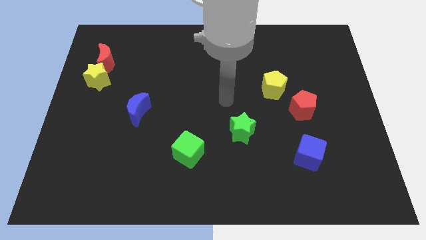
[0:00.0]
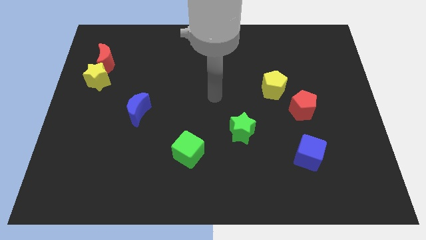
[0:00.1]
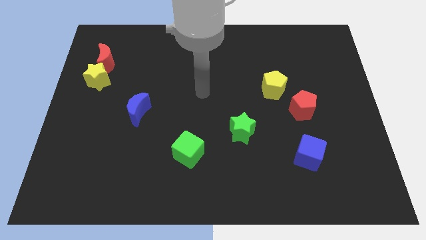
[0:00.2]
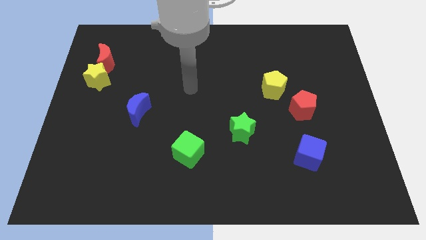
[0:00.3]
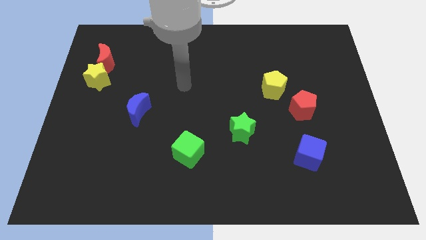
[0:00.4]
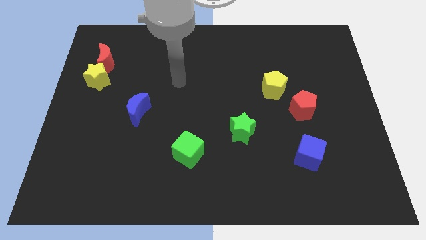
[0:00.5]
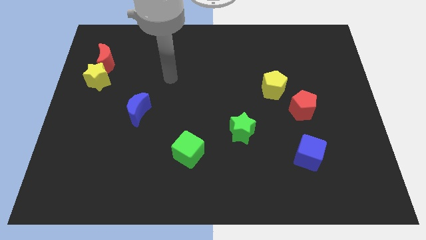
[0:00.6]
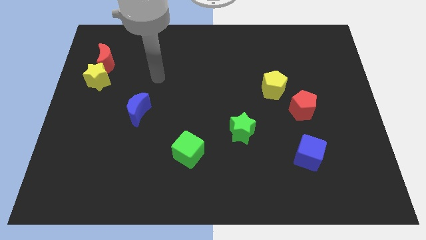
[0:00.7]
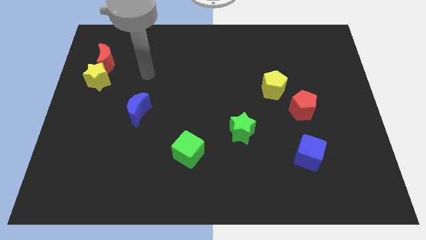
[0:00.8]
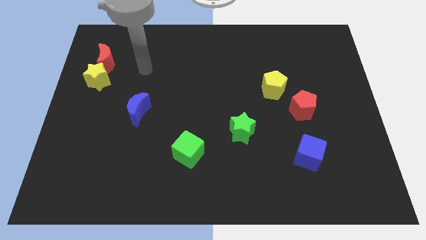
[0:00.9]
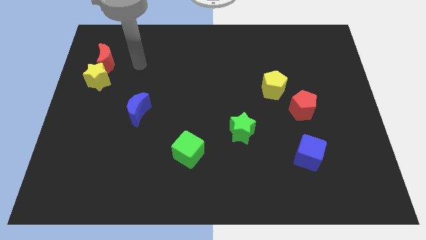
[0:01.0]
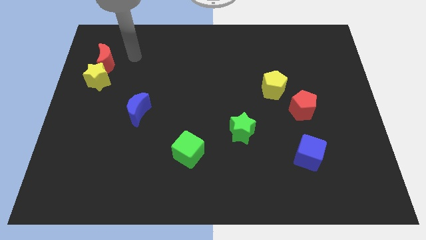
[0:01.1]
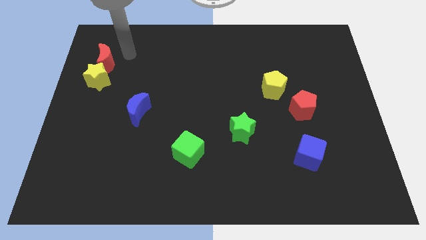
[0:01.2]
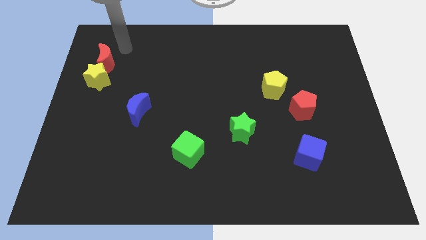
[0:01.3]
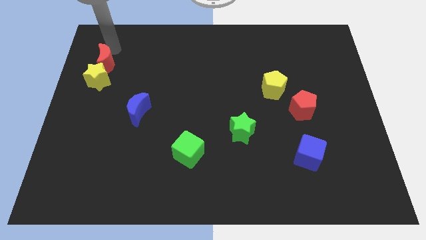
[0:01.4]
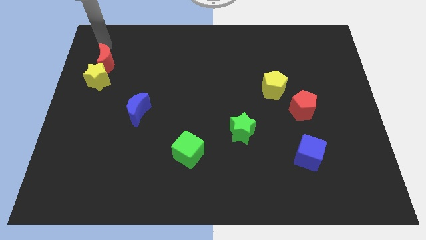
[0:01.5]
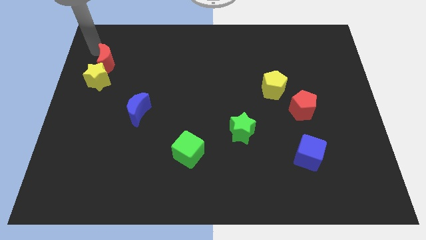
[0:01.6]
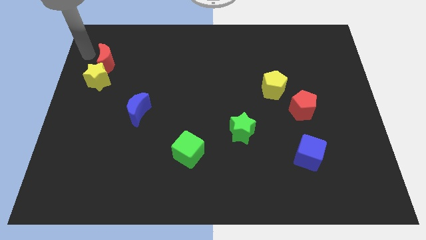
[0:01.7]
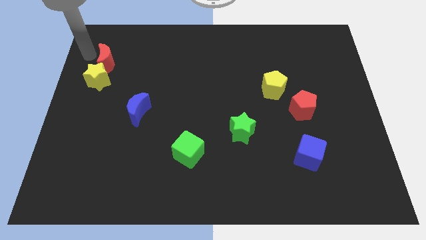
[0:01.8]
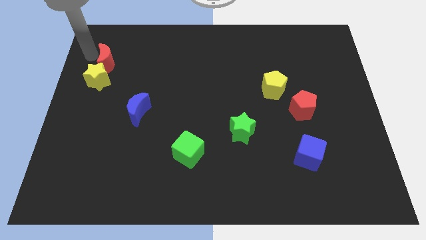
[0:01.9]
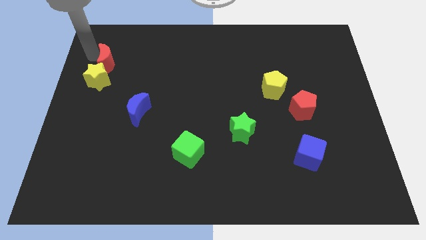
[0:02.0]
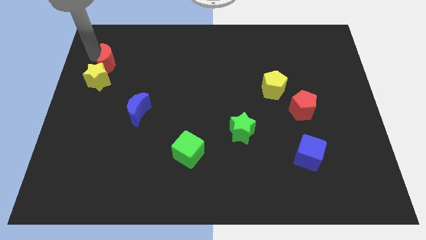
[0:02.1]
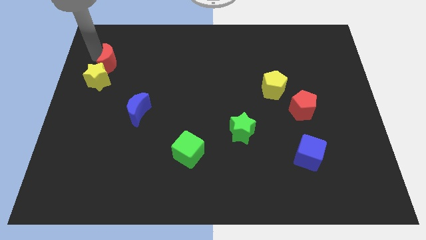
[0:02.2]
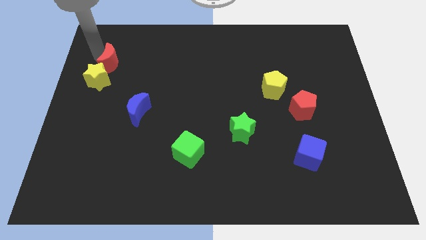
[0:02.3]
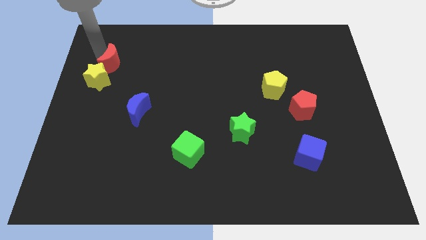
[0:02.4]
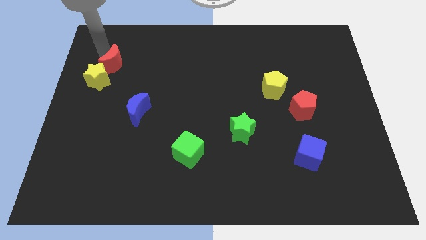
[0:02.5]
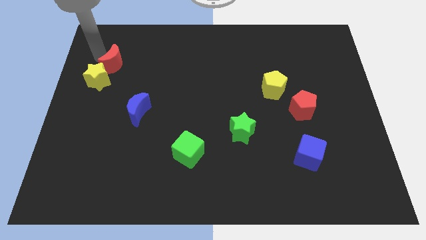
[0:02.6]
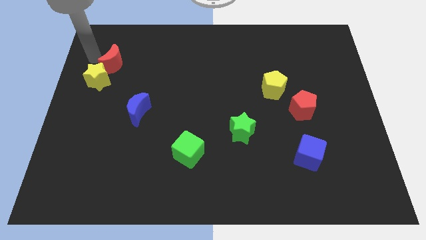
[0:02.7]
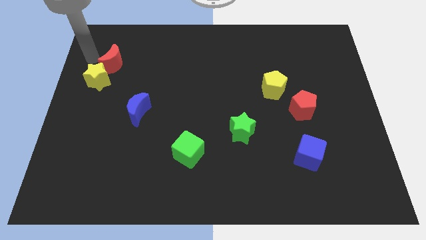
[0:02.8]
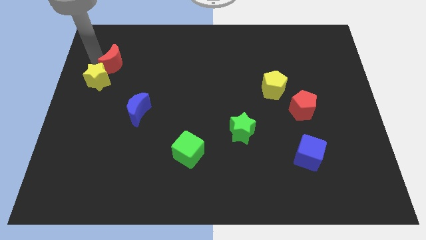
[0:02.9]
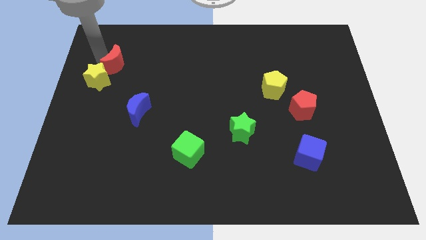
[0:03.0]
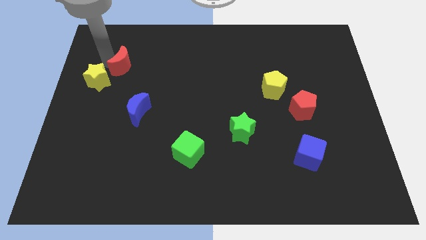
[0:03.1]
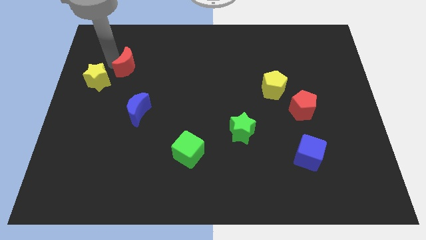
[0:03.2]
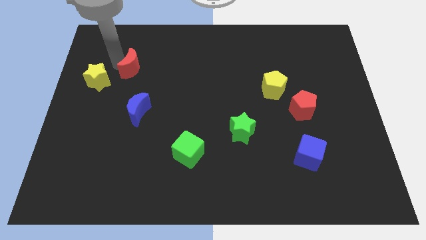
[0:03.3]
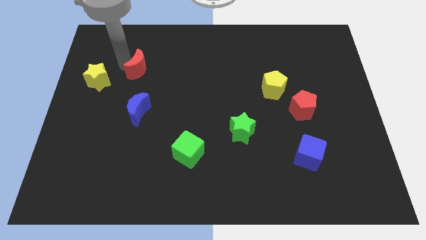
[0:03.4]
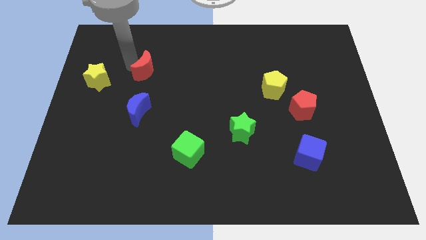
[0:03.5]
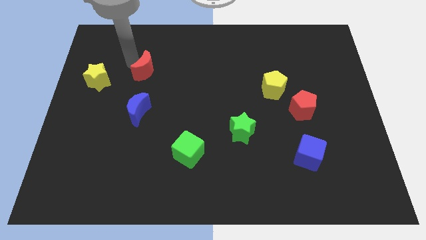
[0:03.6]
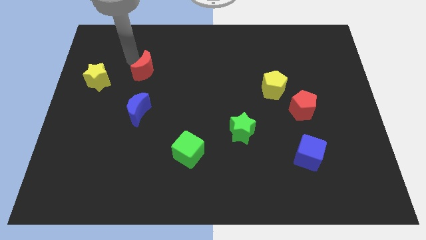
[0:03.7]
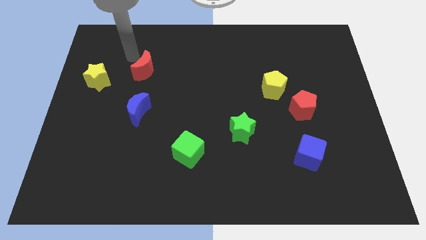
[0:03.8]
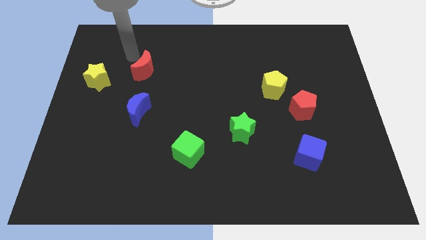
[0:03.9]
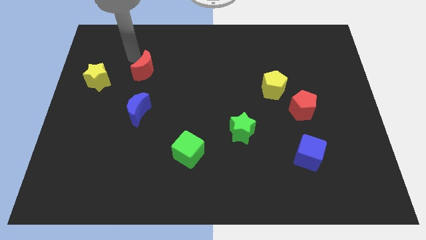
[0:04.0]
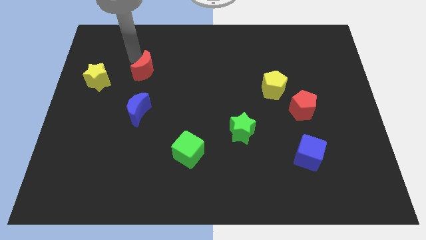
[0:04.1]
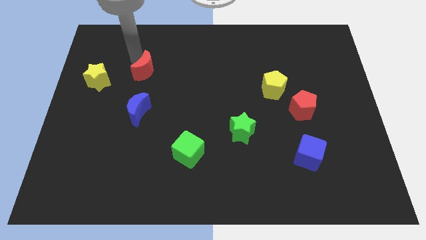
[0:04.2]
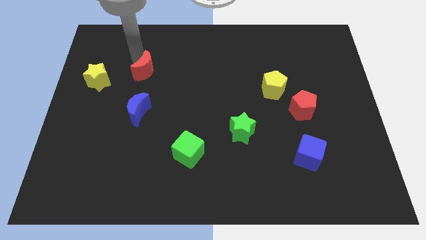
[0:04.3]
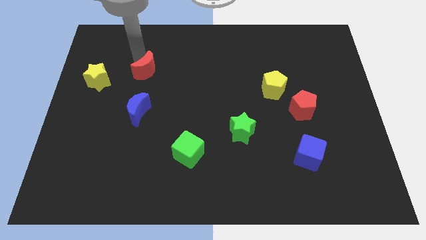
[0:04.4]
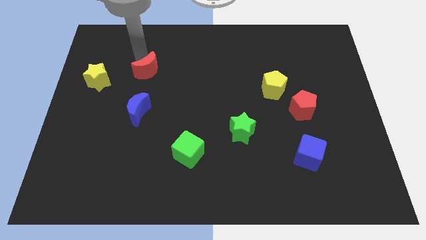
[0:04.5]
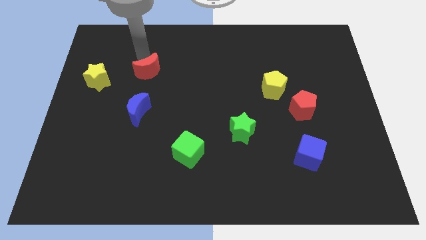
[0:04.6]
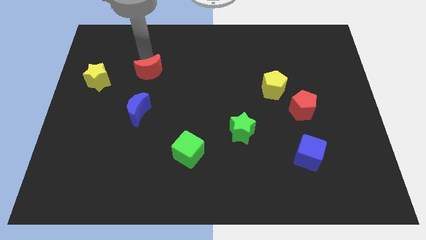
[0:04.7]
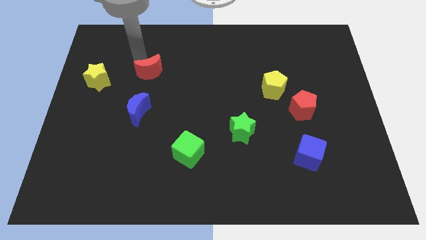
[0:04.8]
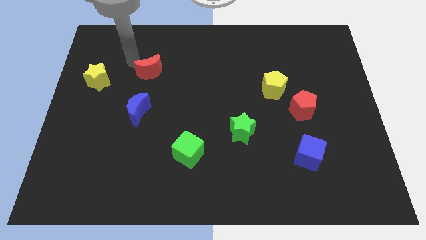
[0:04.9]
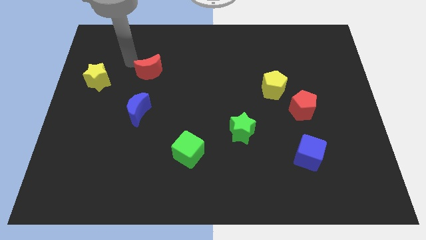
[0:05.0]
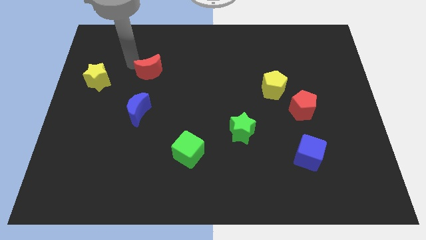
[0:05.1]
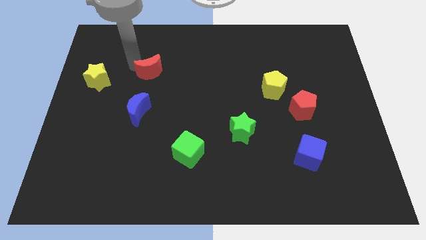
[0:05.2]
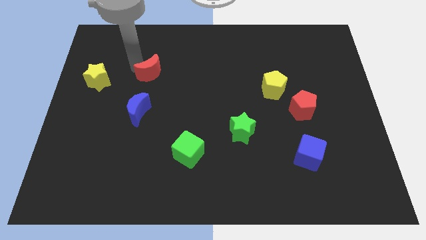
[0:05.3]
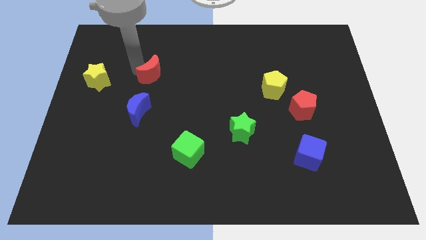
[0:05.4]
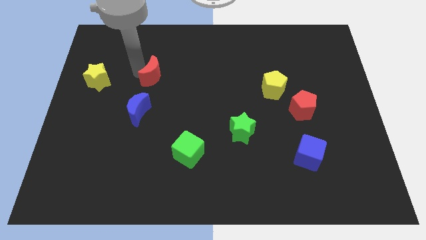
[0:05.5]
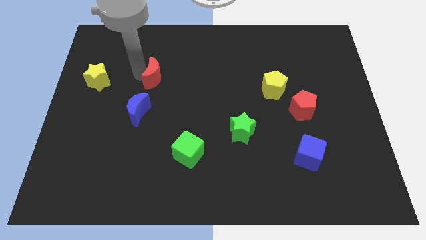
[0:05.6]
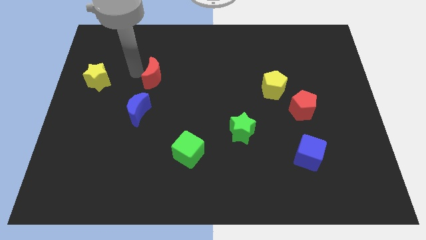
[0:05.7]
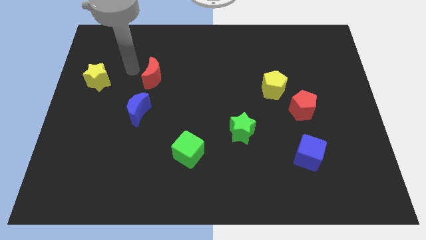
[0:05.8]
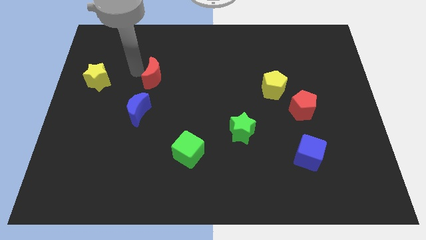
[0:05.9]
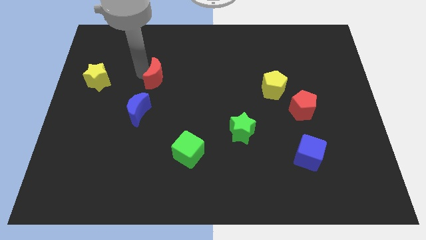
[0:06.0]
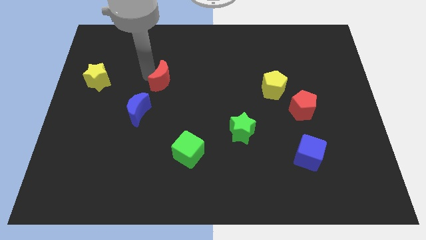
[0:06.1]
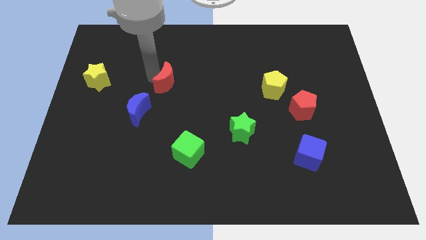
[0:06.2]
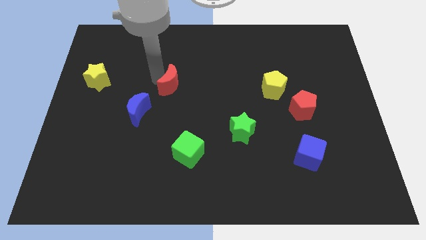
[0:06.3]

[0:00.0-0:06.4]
put the red moon to the center of the board
